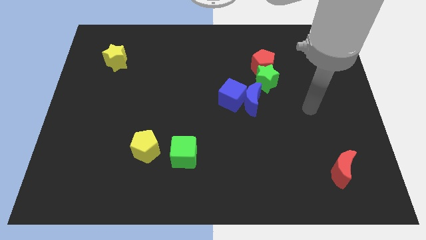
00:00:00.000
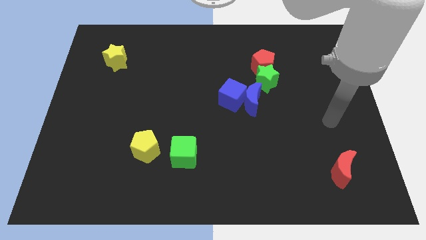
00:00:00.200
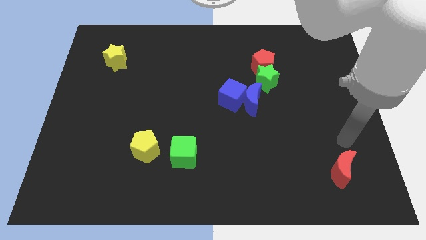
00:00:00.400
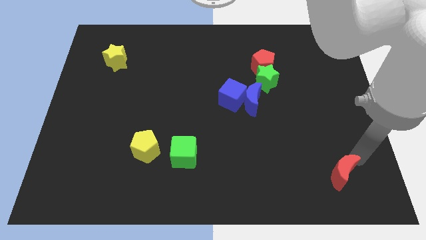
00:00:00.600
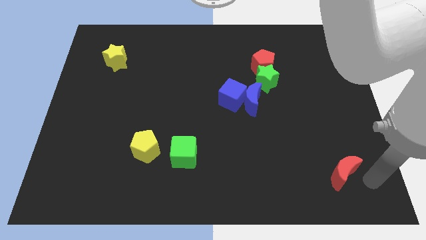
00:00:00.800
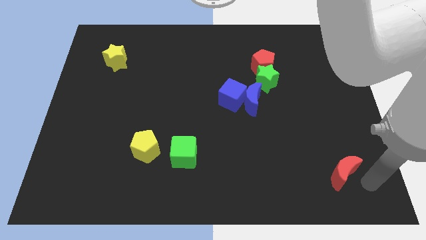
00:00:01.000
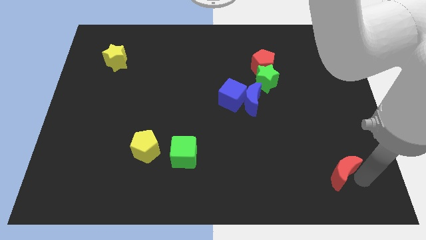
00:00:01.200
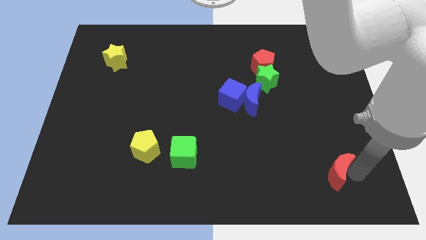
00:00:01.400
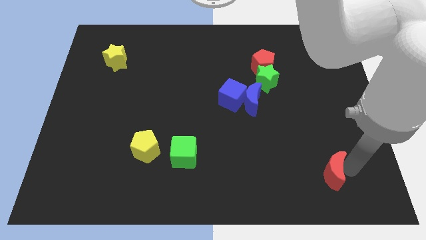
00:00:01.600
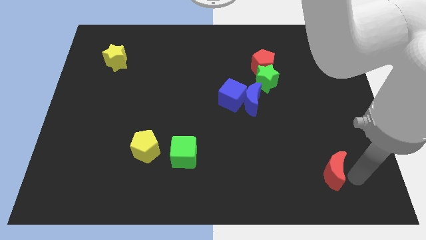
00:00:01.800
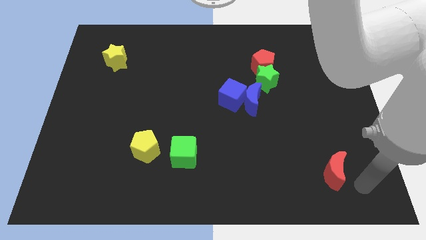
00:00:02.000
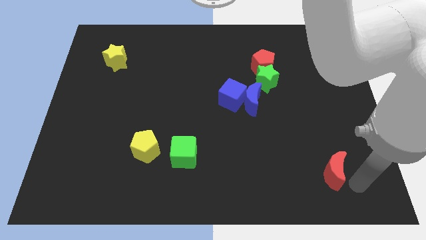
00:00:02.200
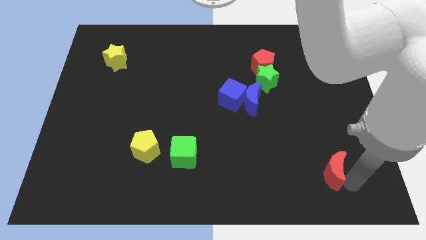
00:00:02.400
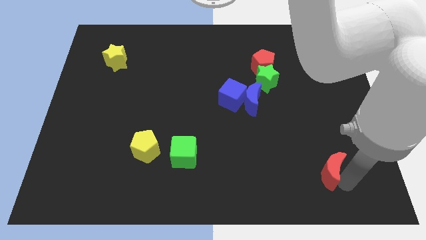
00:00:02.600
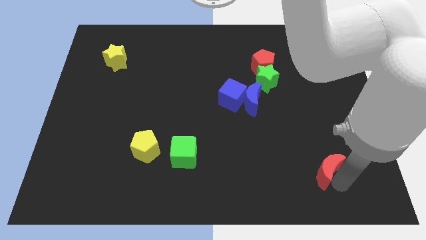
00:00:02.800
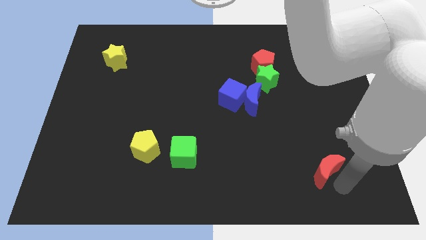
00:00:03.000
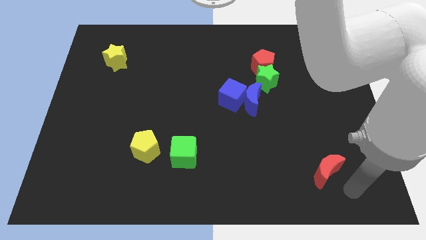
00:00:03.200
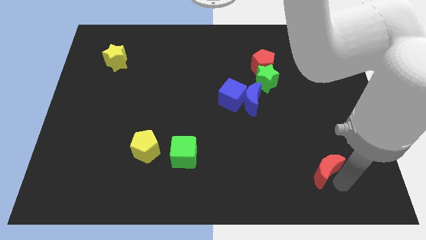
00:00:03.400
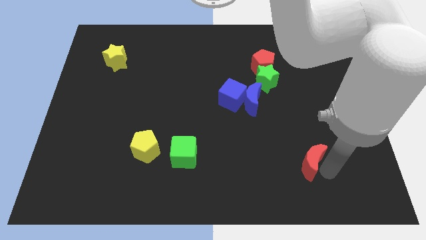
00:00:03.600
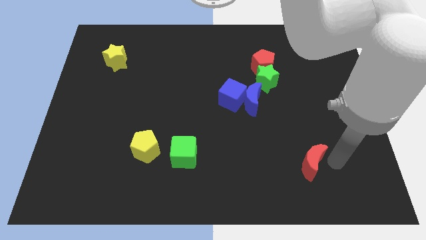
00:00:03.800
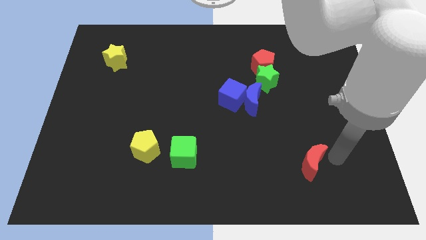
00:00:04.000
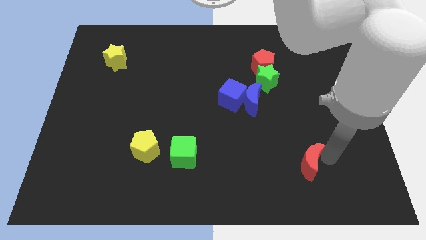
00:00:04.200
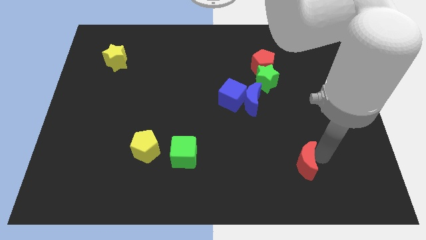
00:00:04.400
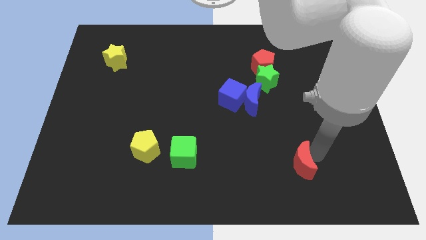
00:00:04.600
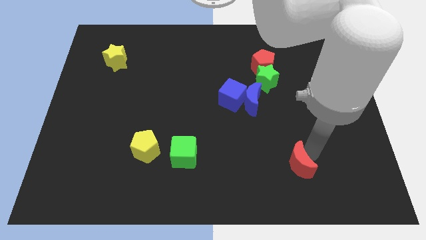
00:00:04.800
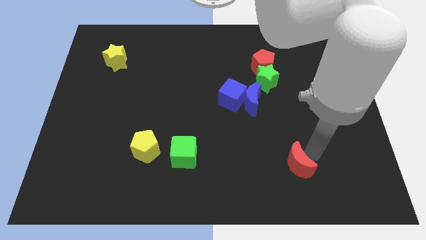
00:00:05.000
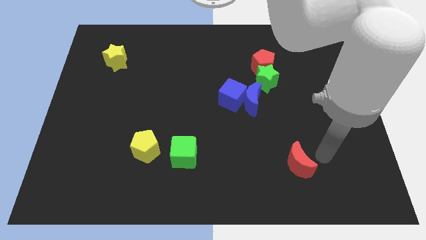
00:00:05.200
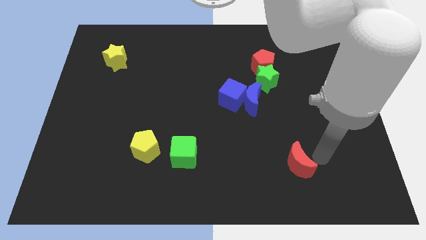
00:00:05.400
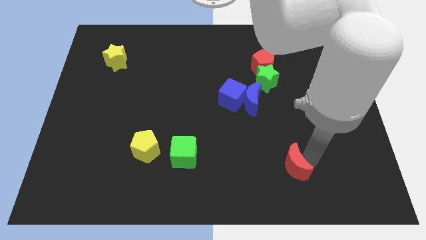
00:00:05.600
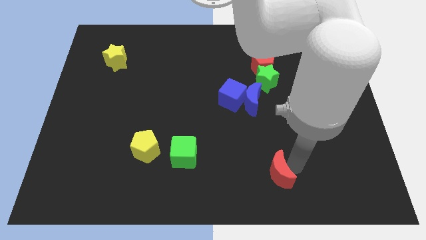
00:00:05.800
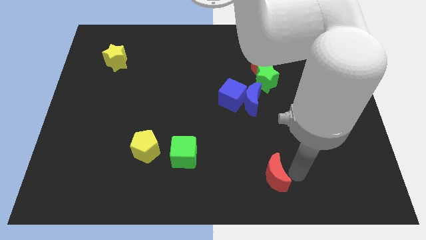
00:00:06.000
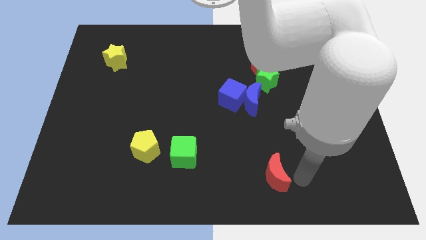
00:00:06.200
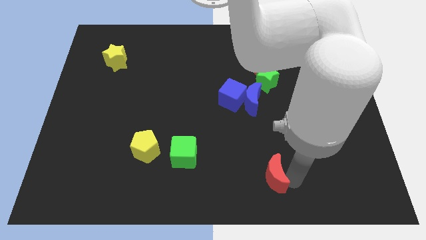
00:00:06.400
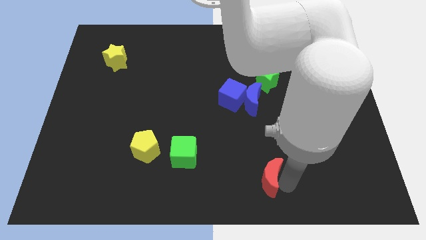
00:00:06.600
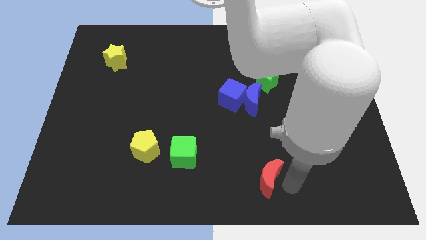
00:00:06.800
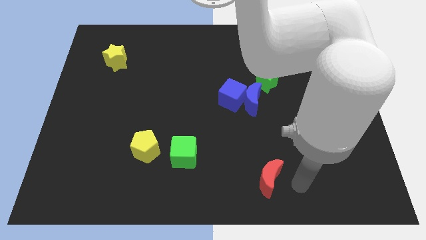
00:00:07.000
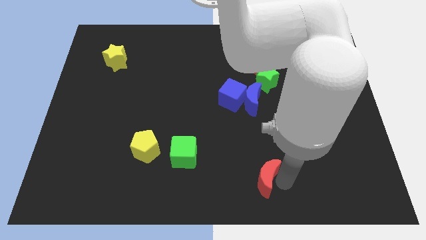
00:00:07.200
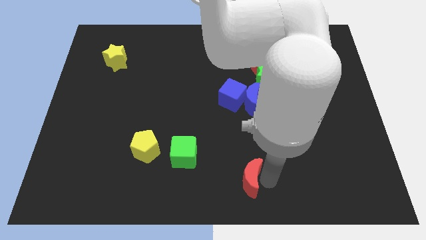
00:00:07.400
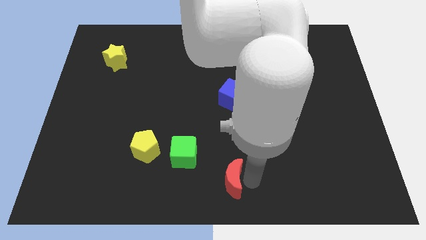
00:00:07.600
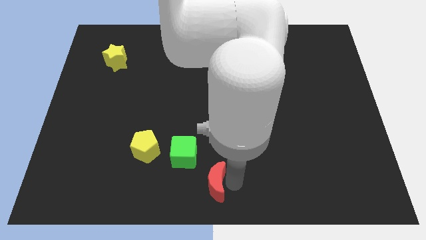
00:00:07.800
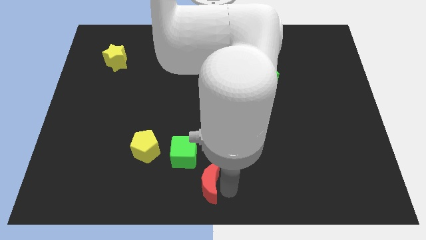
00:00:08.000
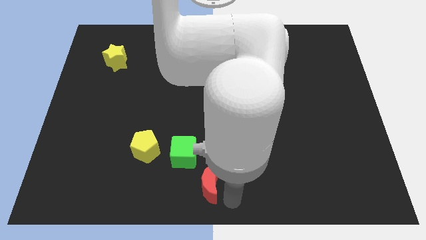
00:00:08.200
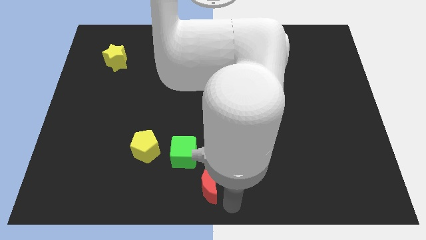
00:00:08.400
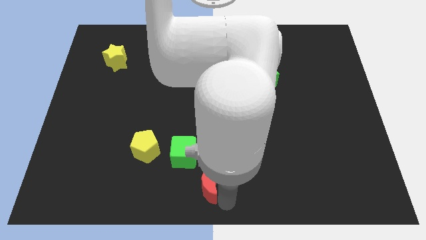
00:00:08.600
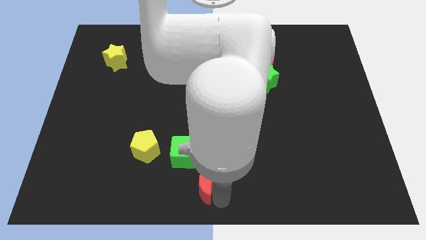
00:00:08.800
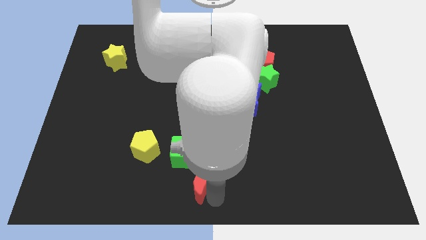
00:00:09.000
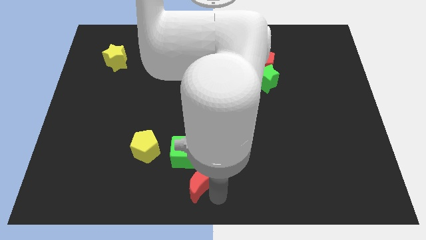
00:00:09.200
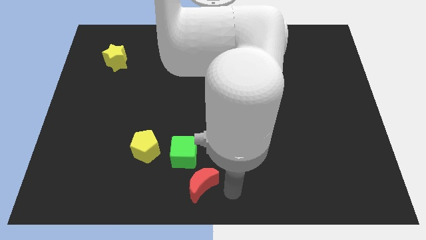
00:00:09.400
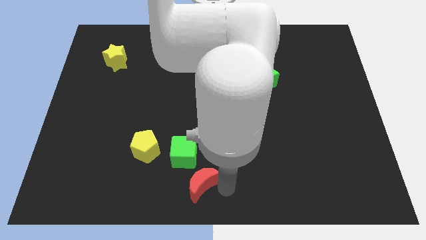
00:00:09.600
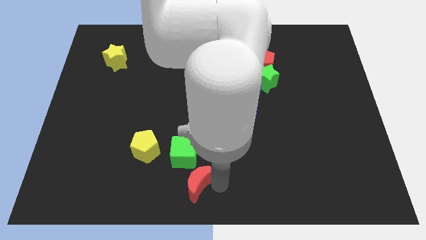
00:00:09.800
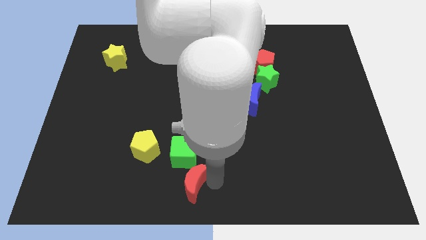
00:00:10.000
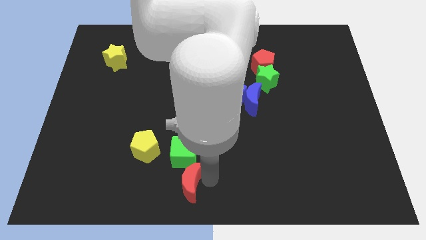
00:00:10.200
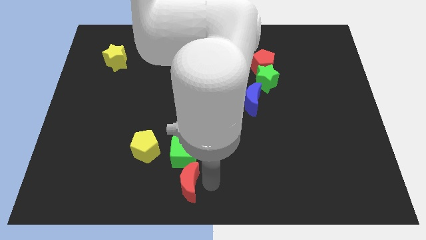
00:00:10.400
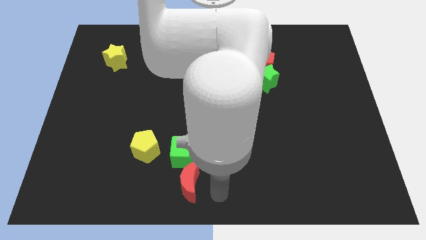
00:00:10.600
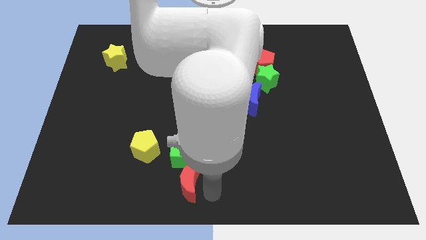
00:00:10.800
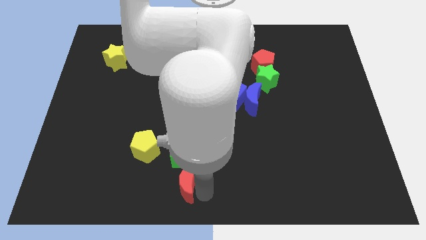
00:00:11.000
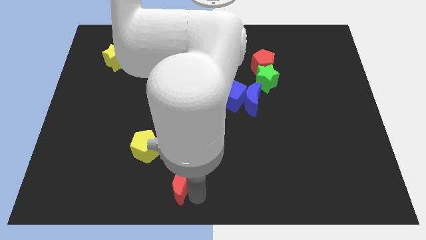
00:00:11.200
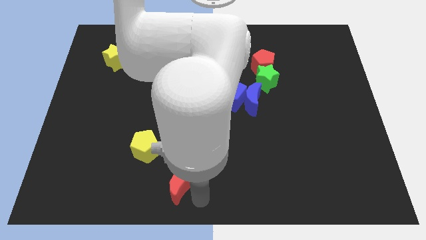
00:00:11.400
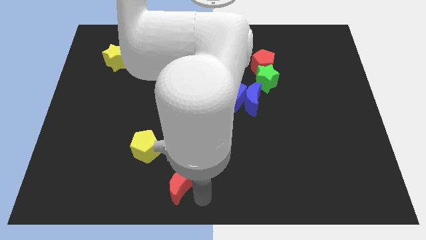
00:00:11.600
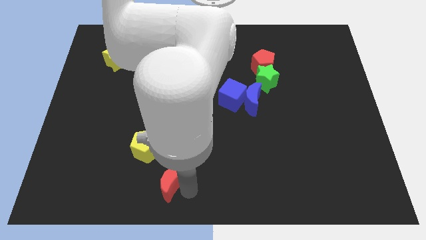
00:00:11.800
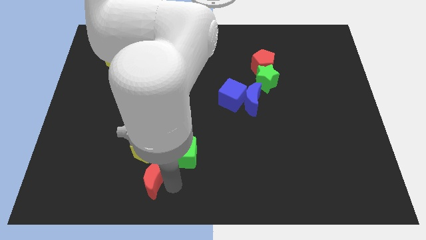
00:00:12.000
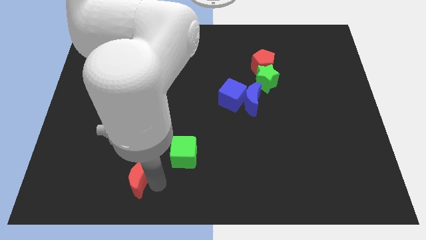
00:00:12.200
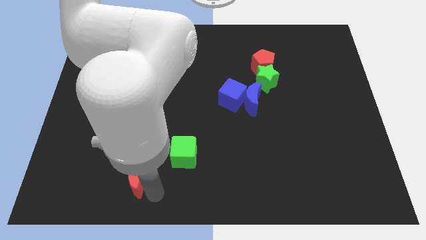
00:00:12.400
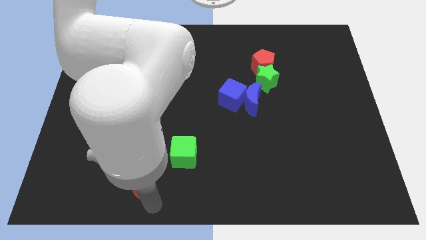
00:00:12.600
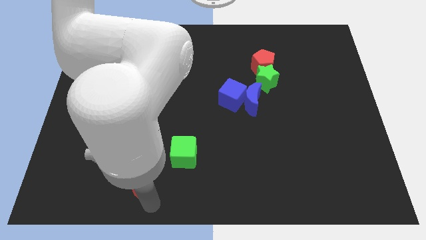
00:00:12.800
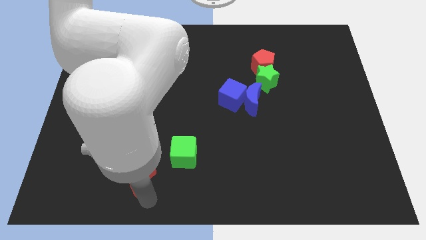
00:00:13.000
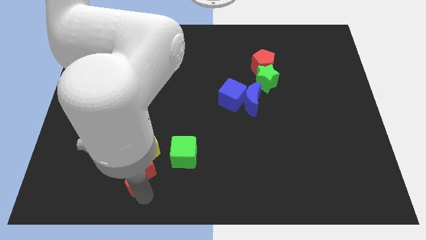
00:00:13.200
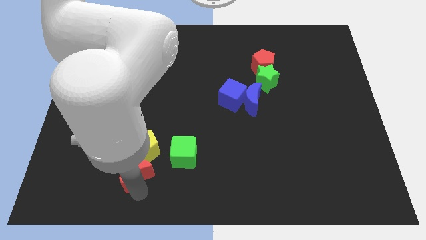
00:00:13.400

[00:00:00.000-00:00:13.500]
push the red moon left of the green cube

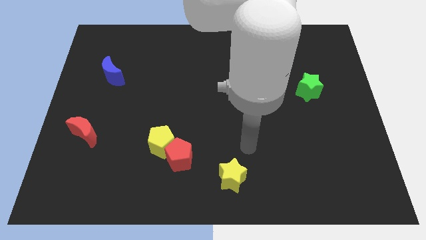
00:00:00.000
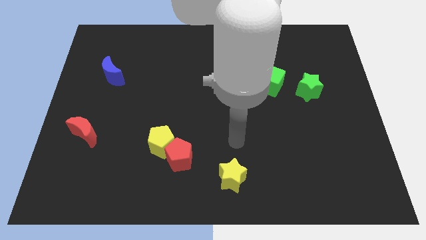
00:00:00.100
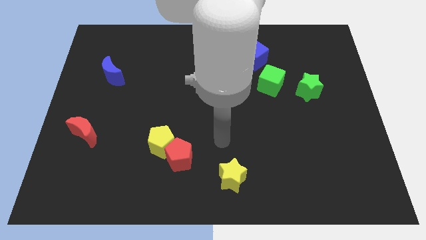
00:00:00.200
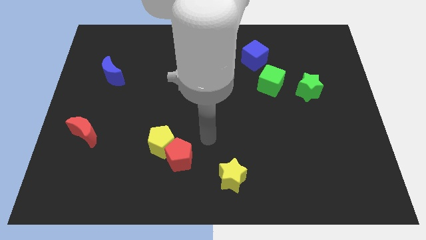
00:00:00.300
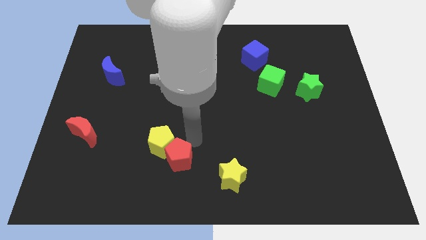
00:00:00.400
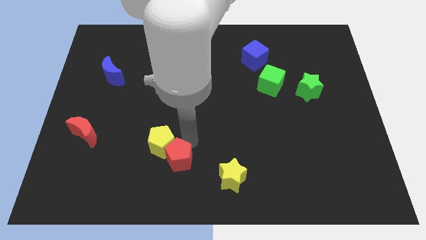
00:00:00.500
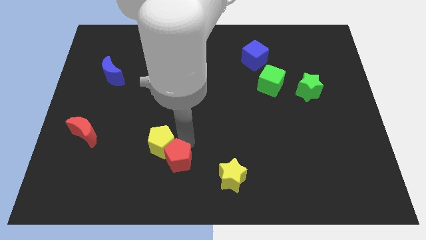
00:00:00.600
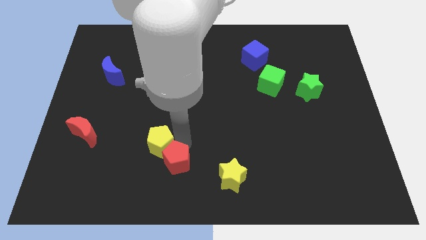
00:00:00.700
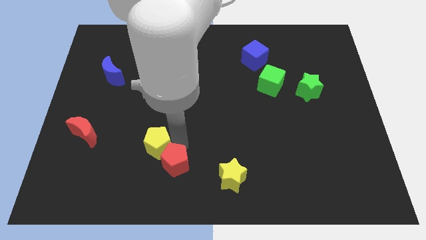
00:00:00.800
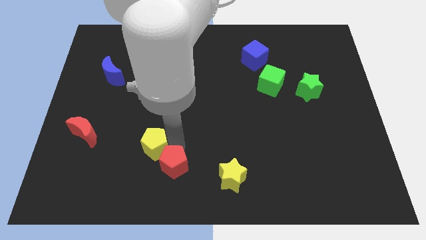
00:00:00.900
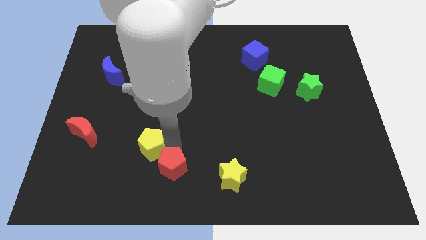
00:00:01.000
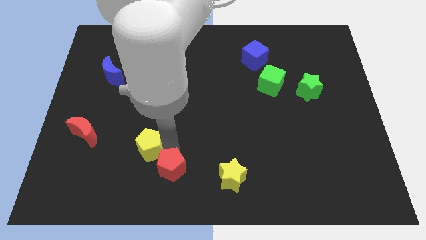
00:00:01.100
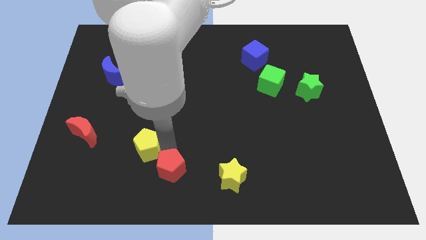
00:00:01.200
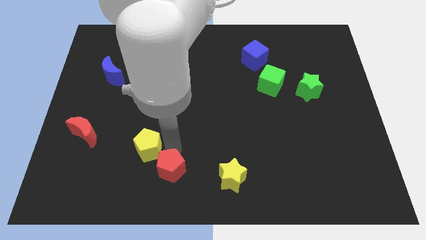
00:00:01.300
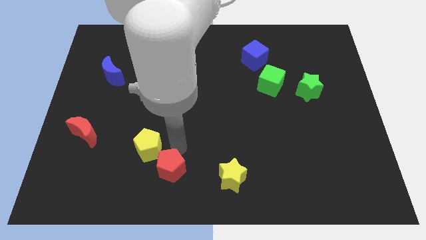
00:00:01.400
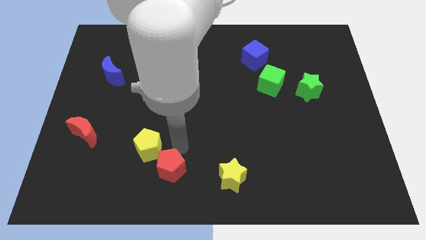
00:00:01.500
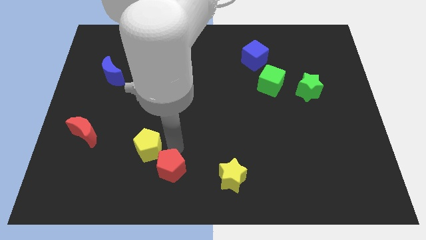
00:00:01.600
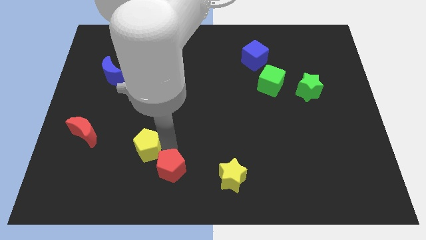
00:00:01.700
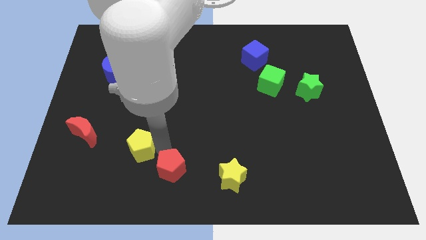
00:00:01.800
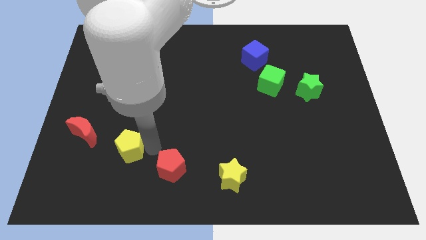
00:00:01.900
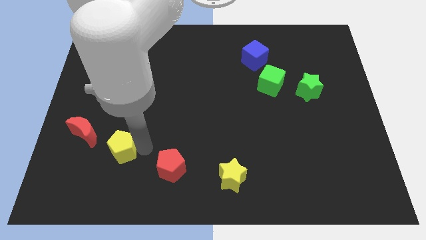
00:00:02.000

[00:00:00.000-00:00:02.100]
slide the yellow pentagon to the bottom right side of the red moon
